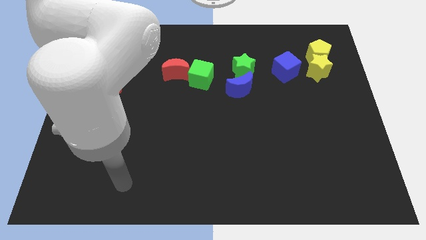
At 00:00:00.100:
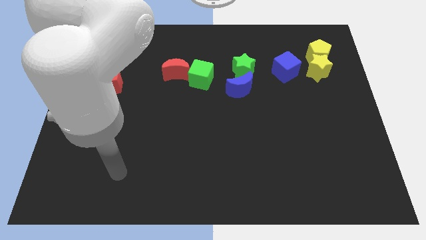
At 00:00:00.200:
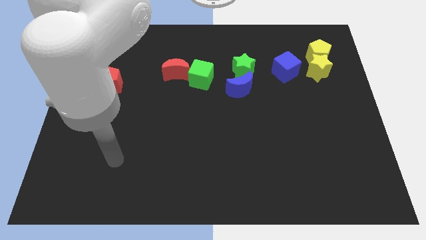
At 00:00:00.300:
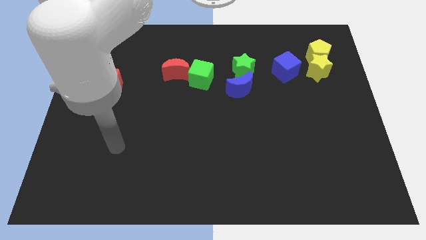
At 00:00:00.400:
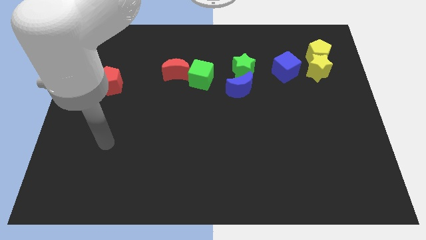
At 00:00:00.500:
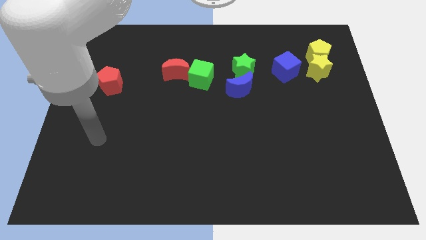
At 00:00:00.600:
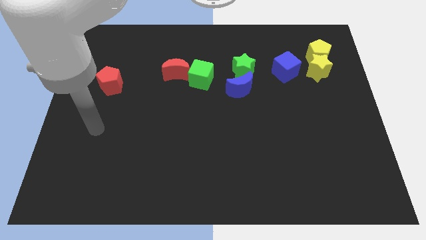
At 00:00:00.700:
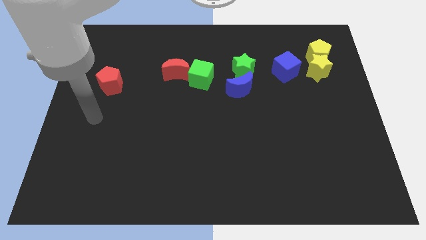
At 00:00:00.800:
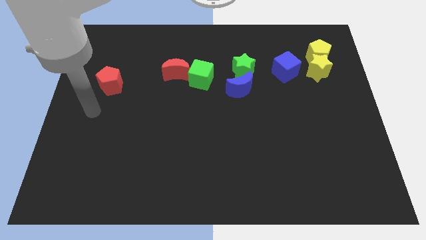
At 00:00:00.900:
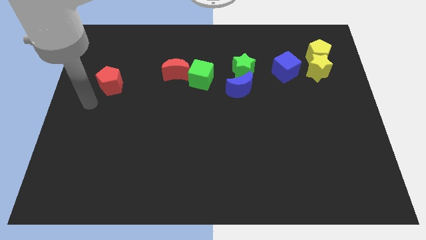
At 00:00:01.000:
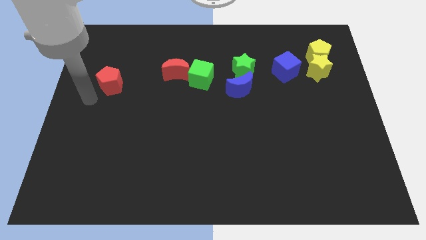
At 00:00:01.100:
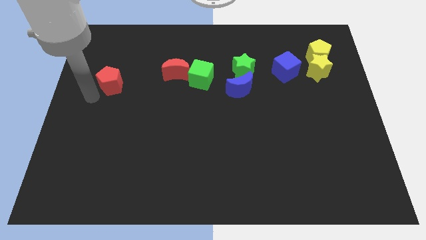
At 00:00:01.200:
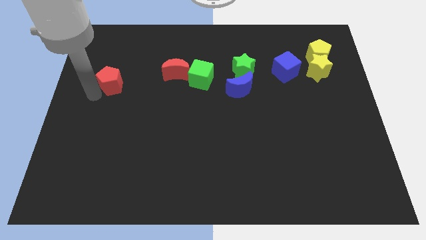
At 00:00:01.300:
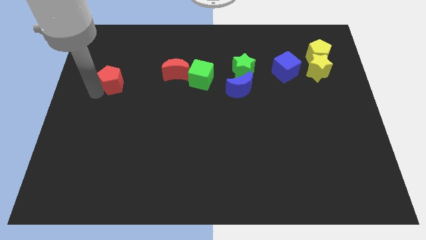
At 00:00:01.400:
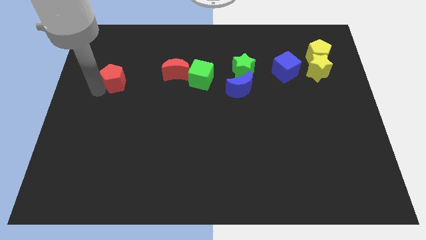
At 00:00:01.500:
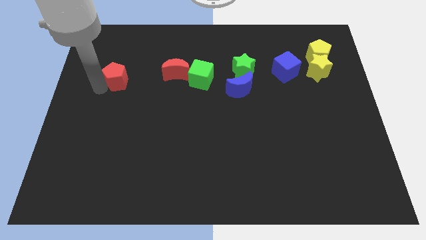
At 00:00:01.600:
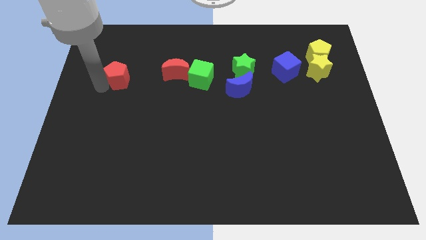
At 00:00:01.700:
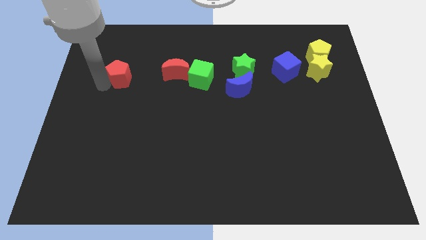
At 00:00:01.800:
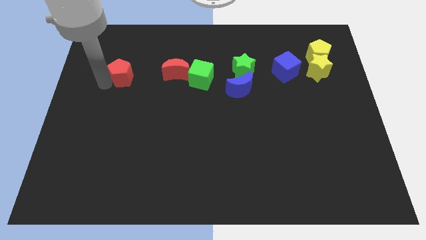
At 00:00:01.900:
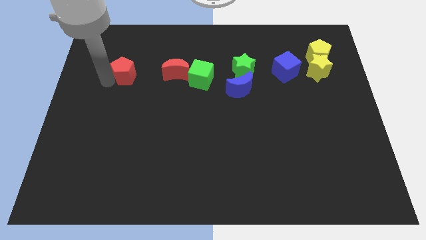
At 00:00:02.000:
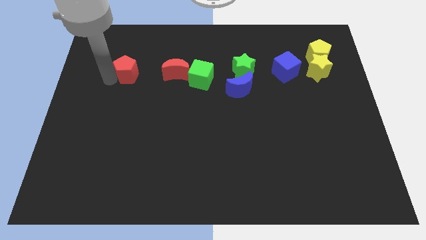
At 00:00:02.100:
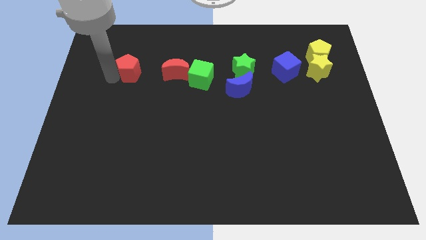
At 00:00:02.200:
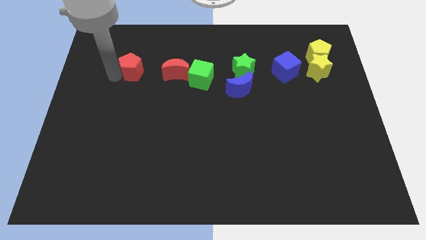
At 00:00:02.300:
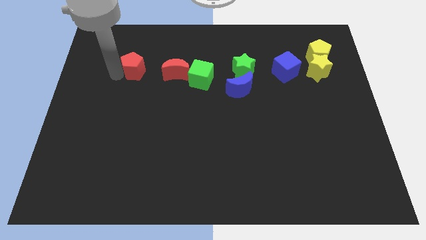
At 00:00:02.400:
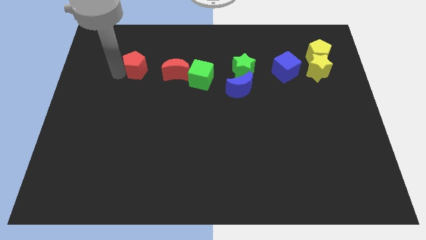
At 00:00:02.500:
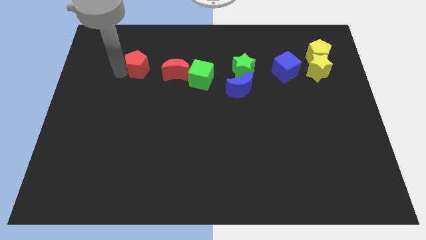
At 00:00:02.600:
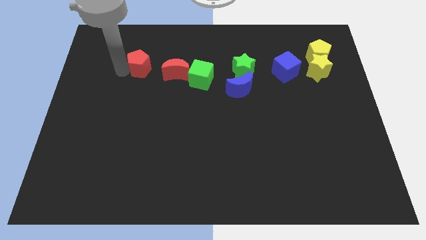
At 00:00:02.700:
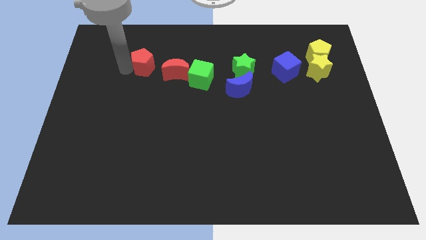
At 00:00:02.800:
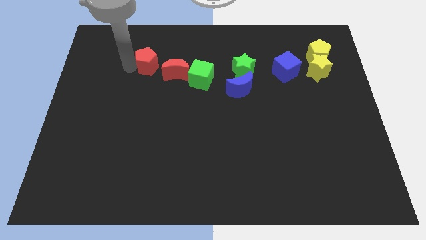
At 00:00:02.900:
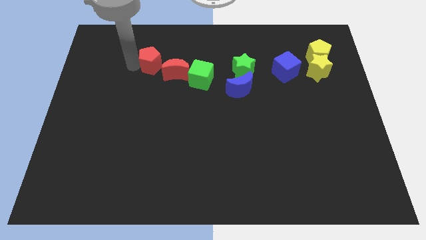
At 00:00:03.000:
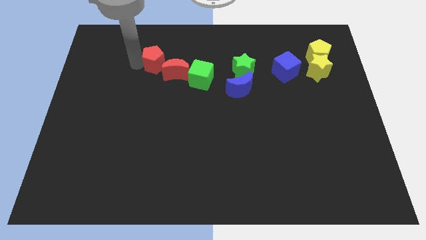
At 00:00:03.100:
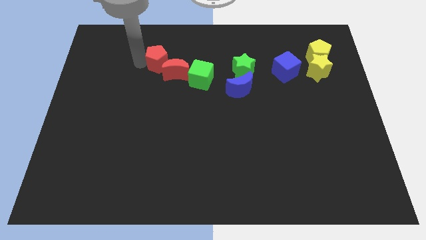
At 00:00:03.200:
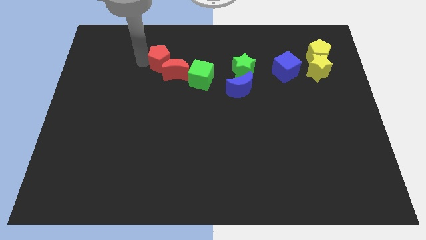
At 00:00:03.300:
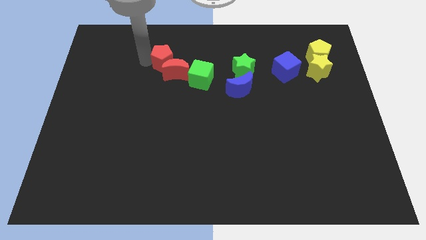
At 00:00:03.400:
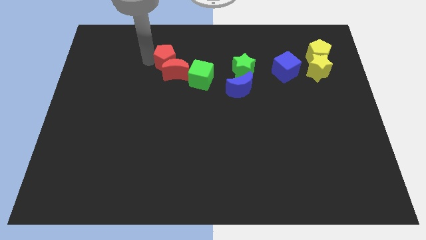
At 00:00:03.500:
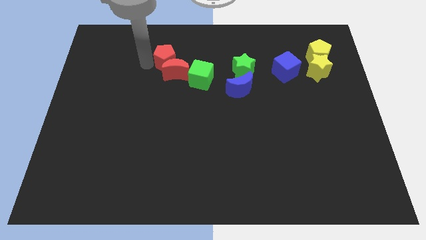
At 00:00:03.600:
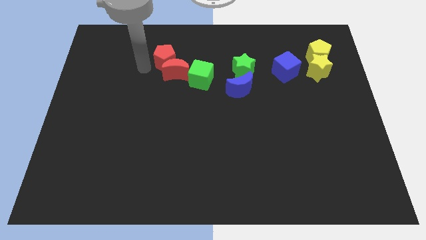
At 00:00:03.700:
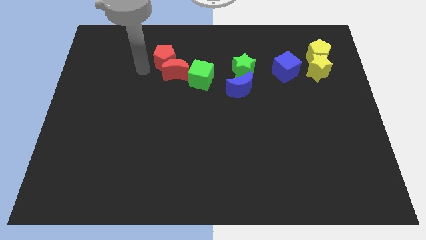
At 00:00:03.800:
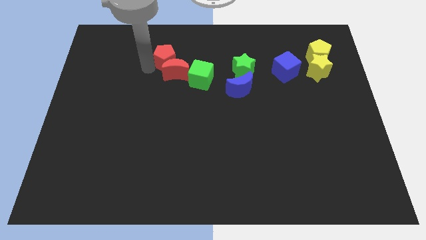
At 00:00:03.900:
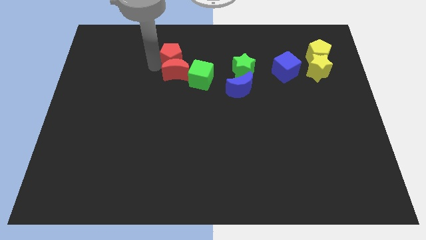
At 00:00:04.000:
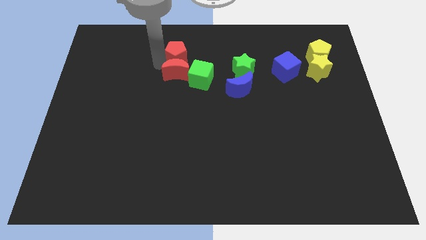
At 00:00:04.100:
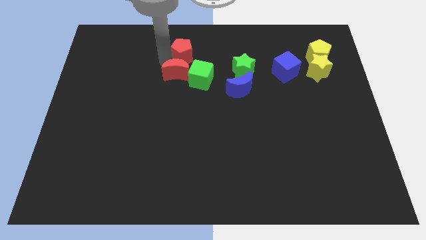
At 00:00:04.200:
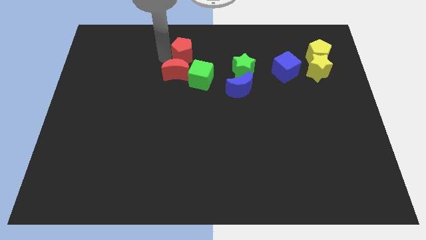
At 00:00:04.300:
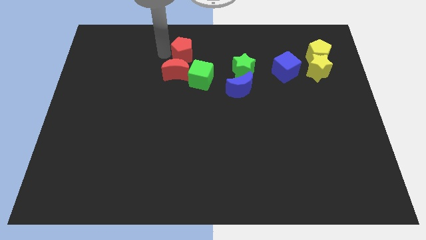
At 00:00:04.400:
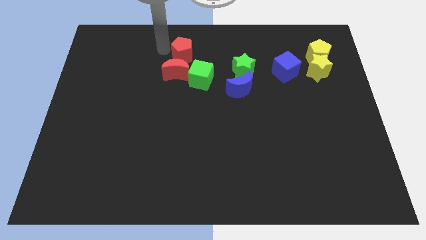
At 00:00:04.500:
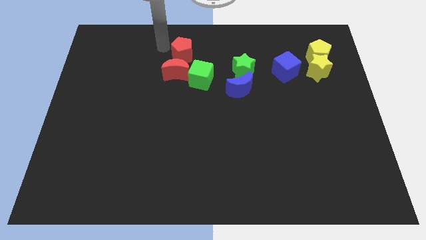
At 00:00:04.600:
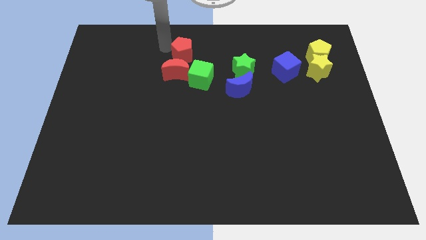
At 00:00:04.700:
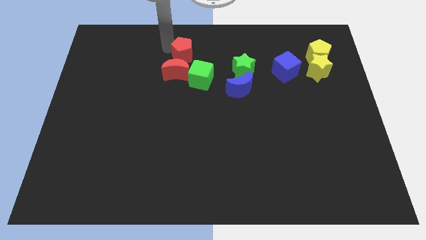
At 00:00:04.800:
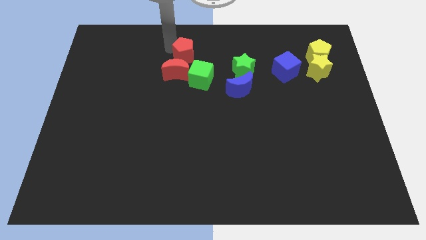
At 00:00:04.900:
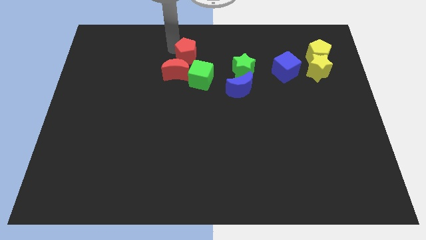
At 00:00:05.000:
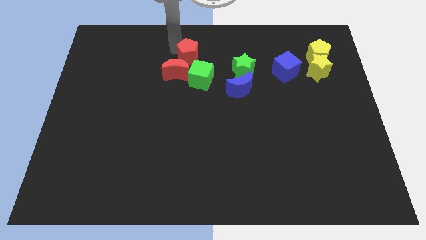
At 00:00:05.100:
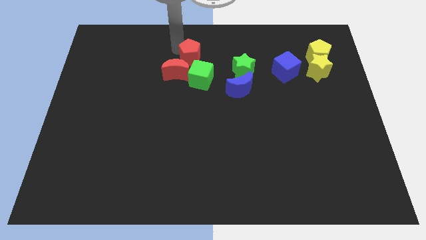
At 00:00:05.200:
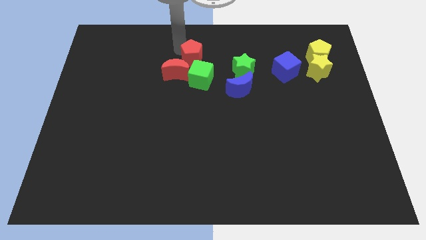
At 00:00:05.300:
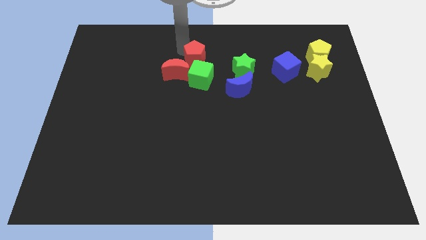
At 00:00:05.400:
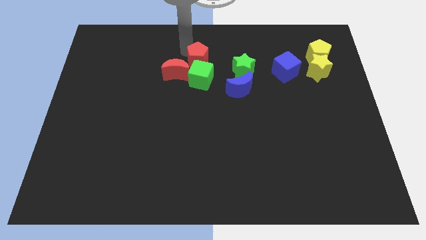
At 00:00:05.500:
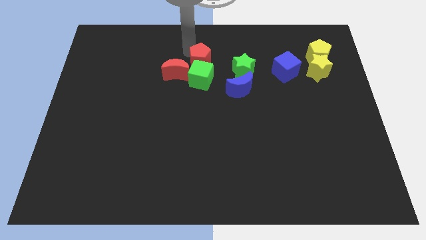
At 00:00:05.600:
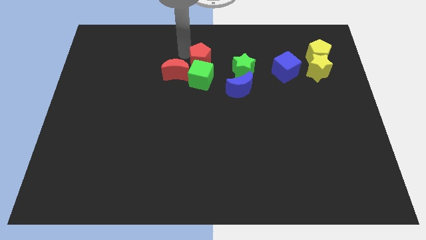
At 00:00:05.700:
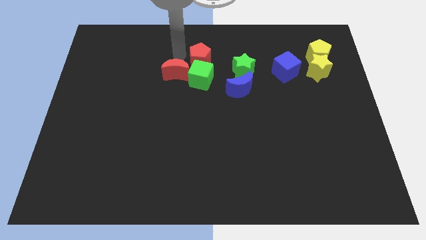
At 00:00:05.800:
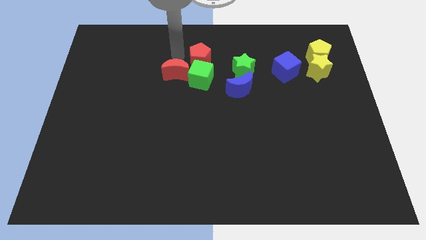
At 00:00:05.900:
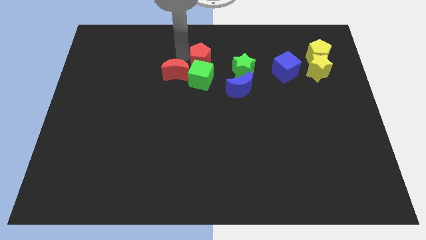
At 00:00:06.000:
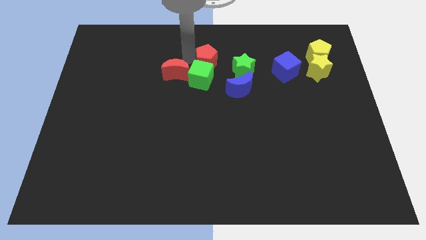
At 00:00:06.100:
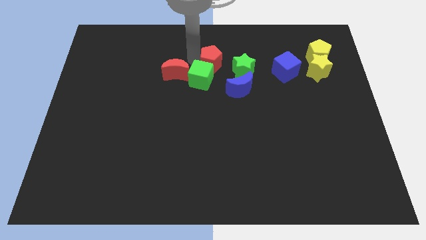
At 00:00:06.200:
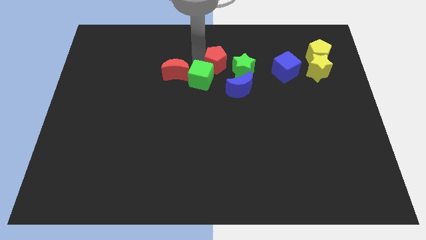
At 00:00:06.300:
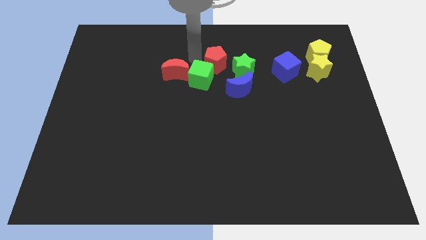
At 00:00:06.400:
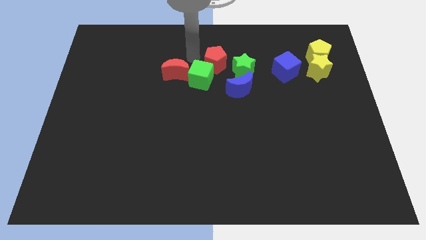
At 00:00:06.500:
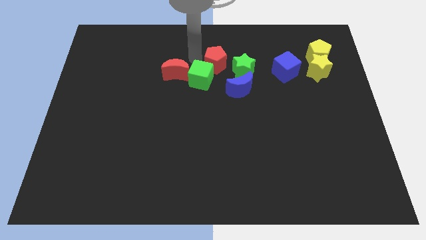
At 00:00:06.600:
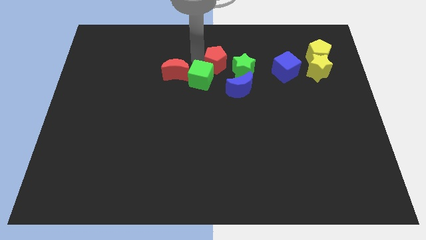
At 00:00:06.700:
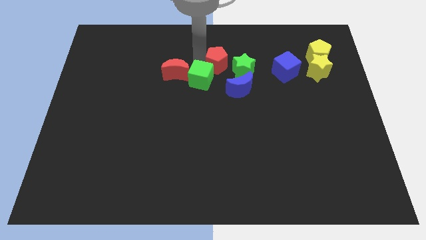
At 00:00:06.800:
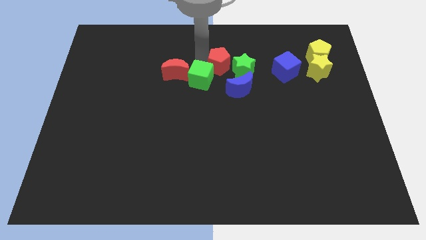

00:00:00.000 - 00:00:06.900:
push the red pentagon towards the green star
